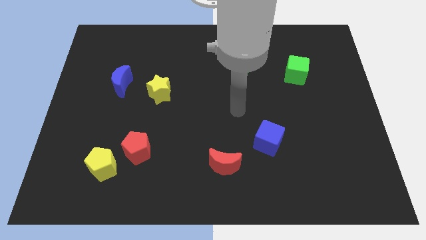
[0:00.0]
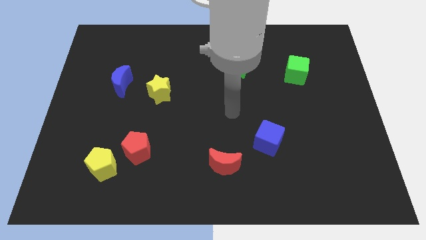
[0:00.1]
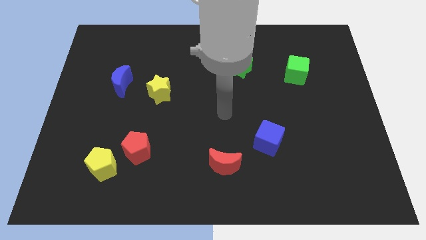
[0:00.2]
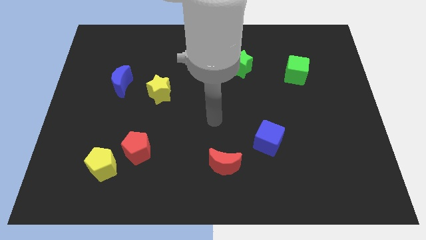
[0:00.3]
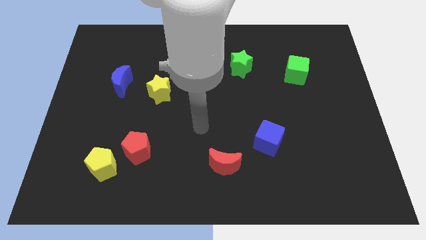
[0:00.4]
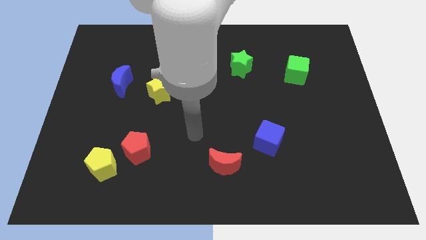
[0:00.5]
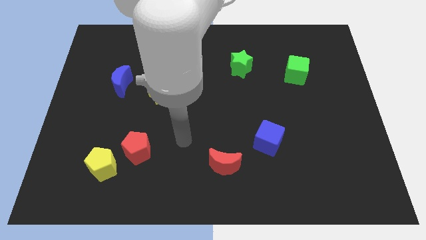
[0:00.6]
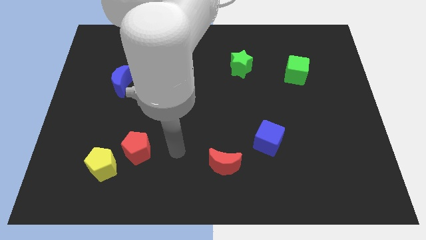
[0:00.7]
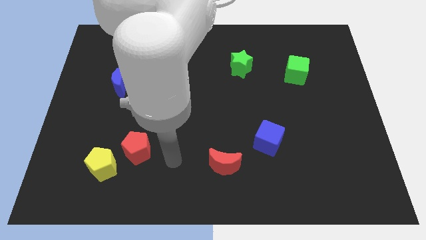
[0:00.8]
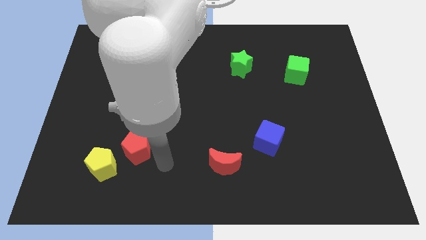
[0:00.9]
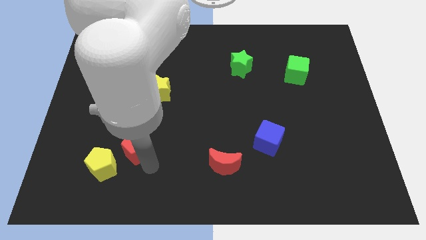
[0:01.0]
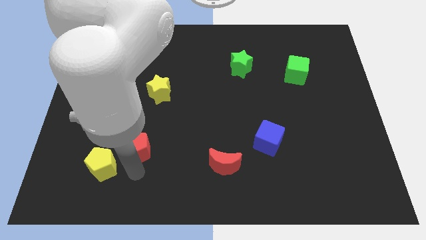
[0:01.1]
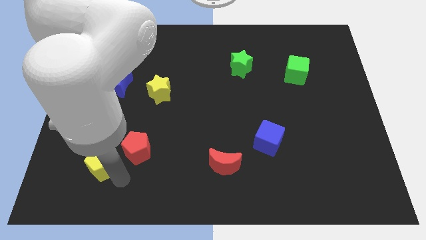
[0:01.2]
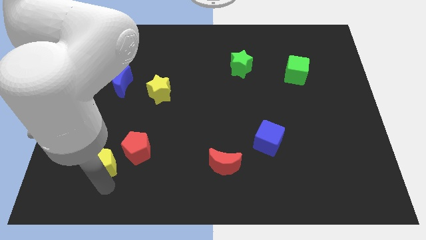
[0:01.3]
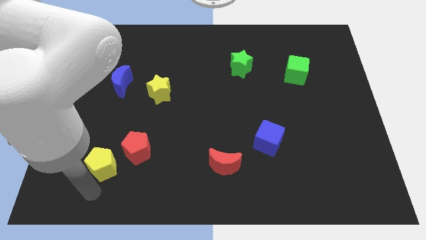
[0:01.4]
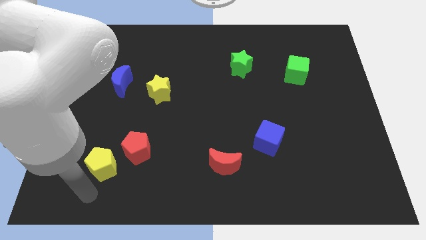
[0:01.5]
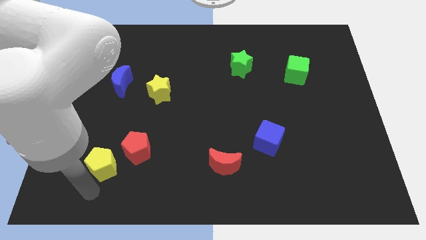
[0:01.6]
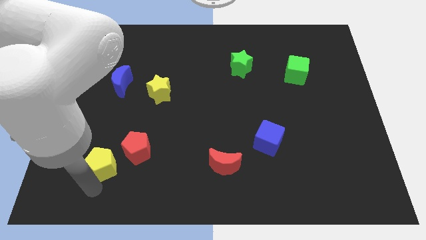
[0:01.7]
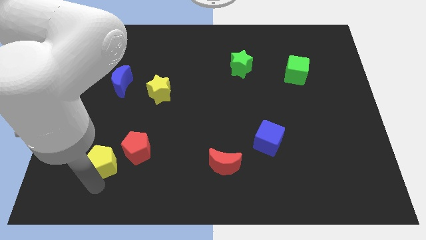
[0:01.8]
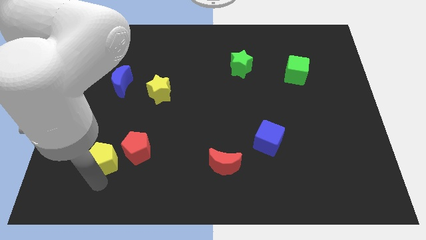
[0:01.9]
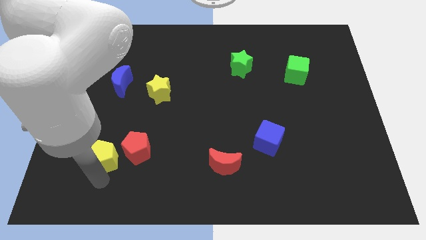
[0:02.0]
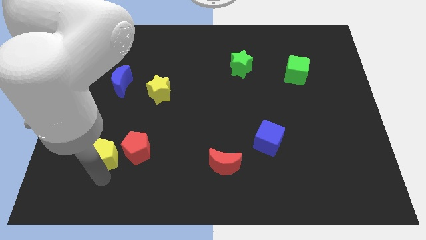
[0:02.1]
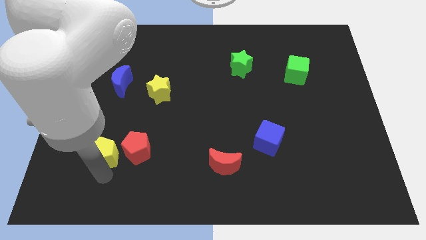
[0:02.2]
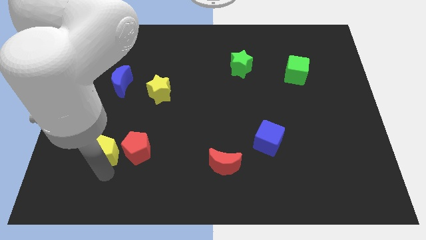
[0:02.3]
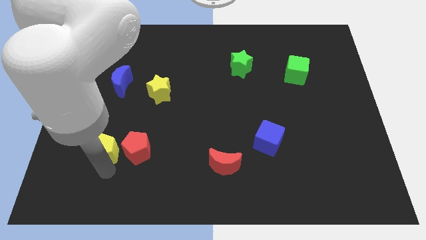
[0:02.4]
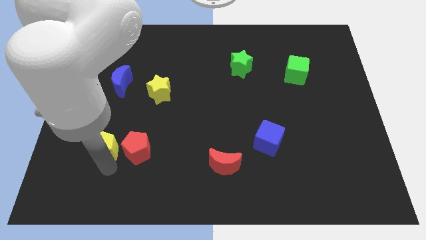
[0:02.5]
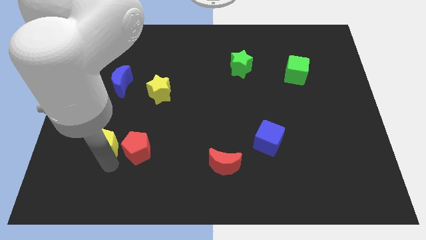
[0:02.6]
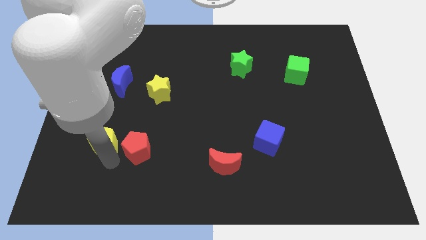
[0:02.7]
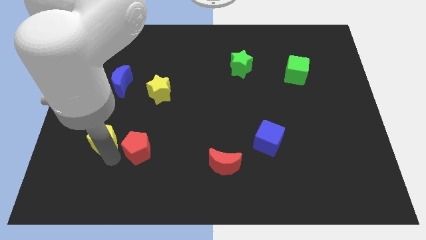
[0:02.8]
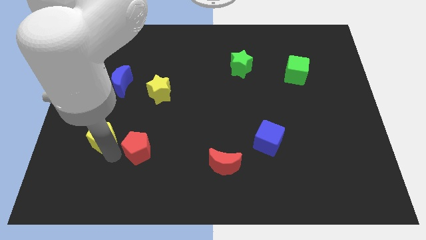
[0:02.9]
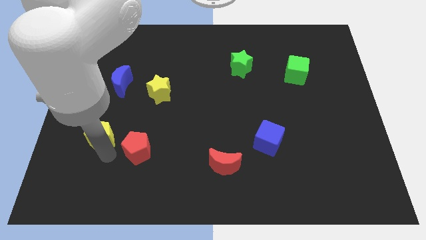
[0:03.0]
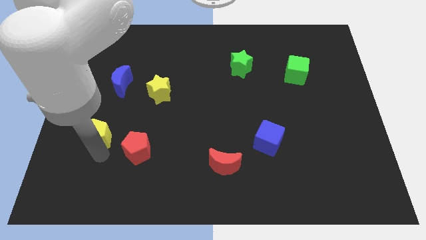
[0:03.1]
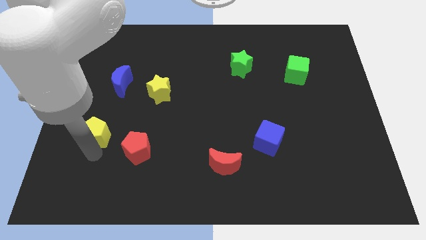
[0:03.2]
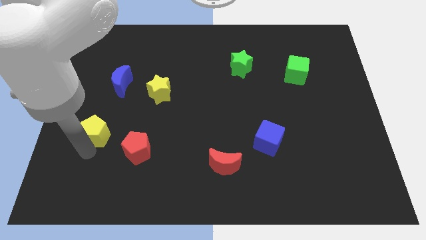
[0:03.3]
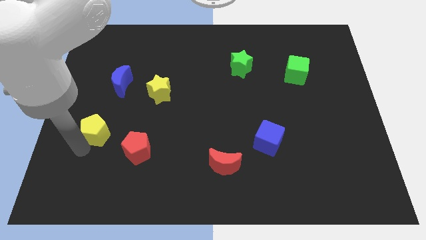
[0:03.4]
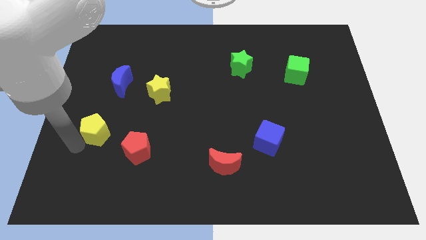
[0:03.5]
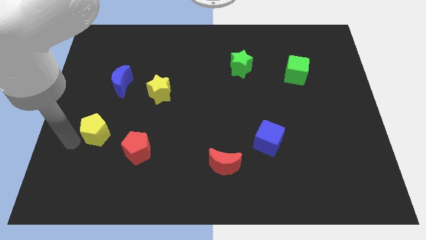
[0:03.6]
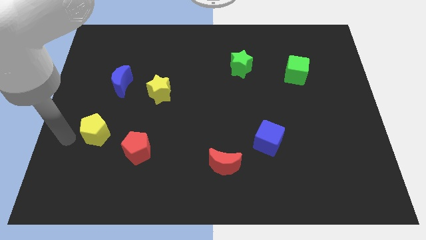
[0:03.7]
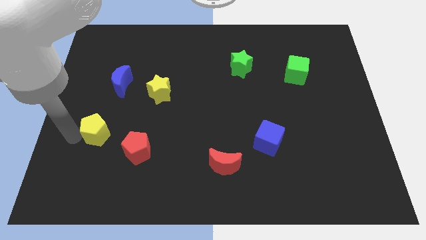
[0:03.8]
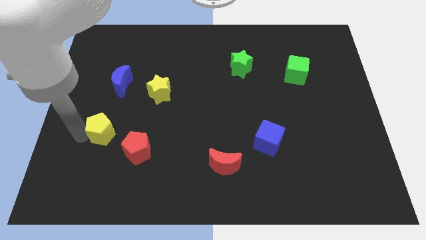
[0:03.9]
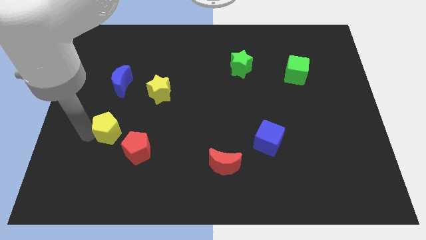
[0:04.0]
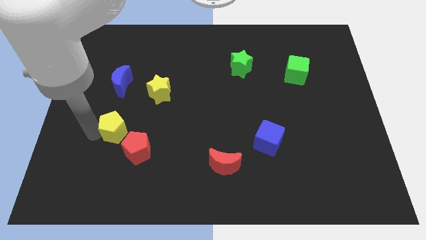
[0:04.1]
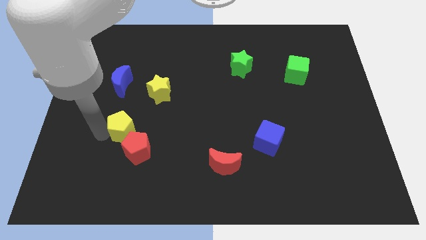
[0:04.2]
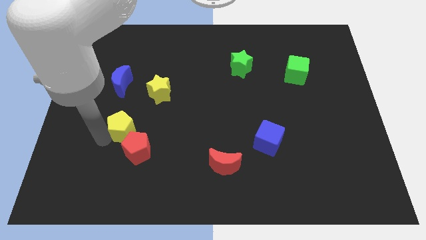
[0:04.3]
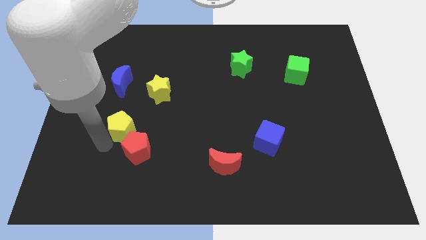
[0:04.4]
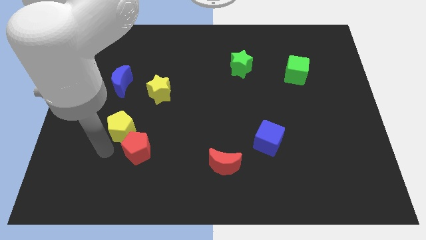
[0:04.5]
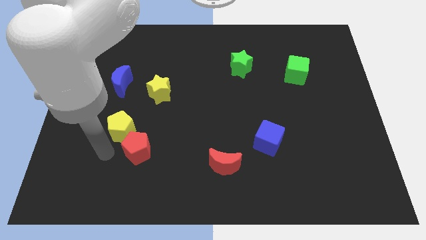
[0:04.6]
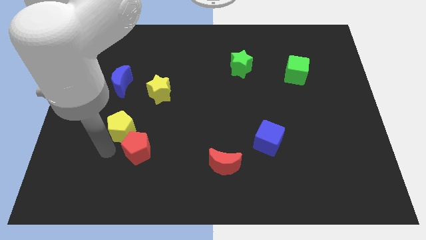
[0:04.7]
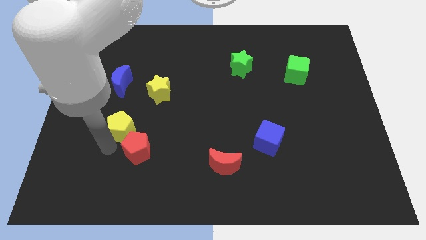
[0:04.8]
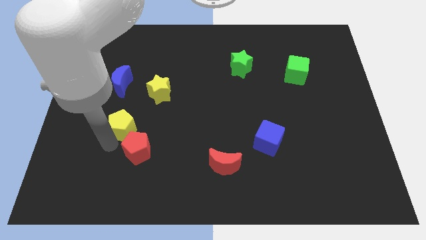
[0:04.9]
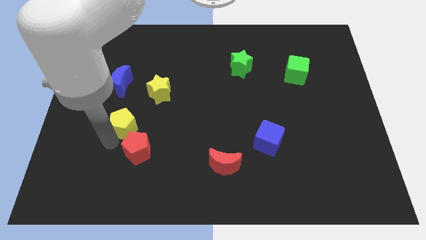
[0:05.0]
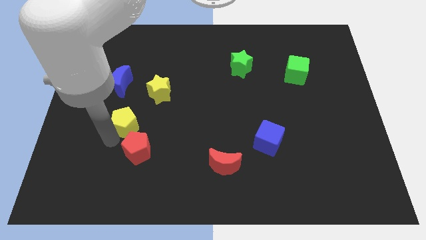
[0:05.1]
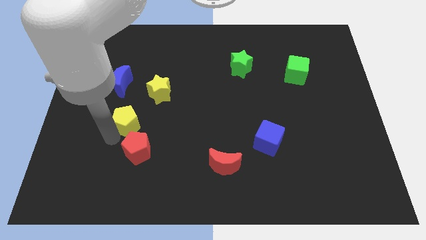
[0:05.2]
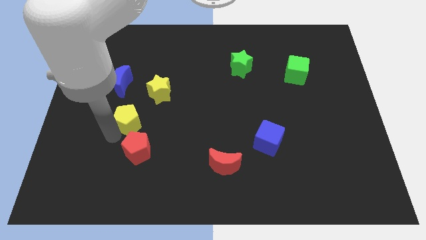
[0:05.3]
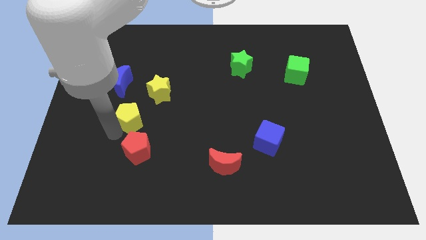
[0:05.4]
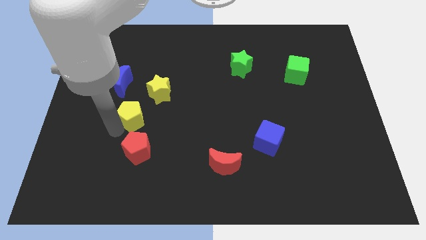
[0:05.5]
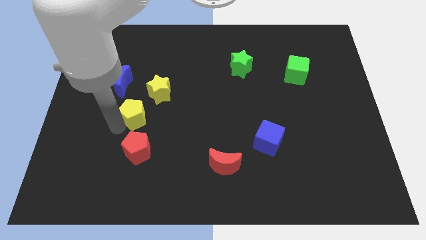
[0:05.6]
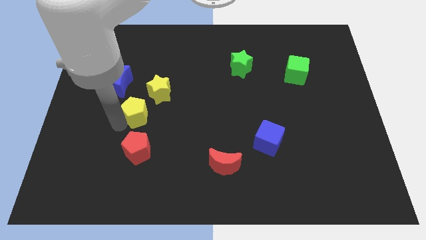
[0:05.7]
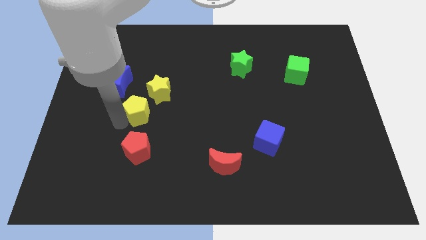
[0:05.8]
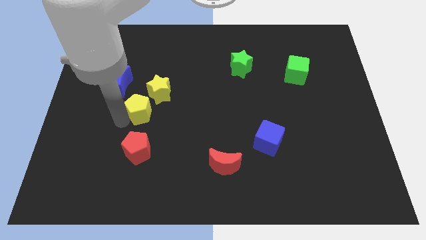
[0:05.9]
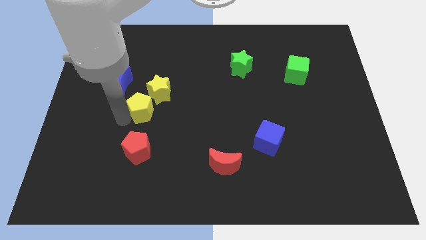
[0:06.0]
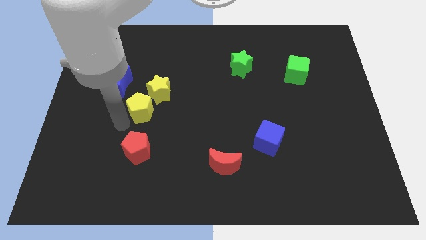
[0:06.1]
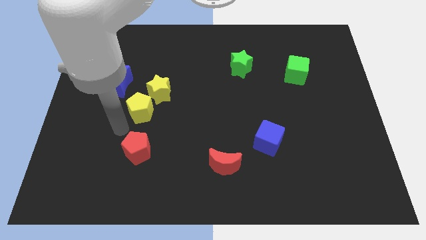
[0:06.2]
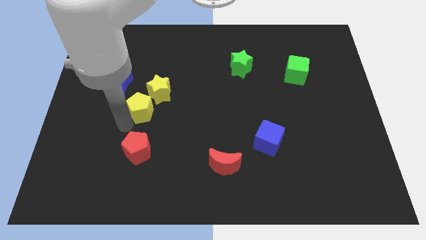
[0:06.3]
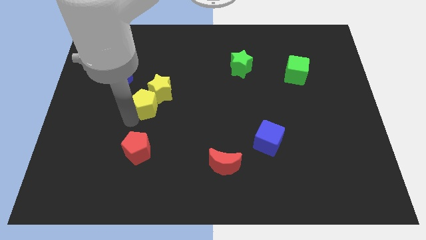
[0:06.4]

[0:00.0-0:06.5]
push the yellow pentagon to the yellow star

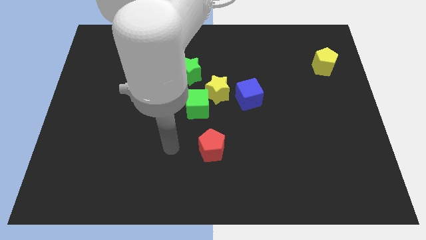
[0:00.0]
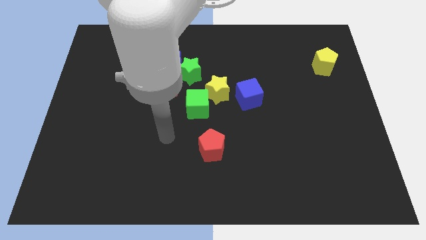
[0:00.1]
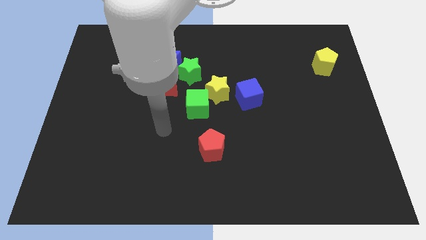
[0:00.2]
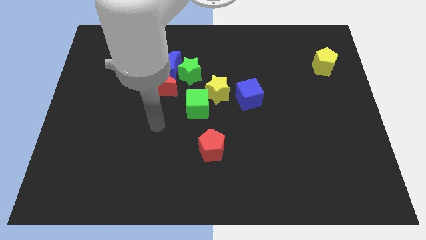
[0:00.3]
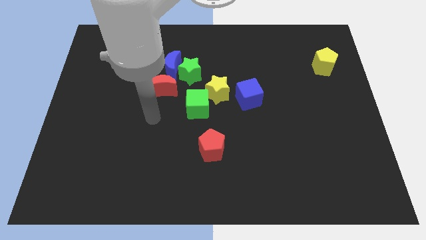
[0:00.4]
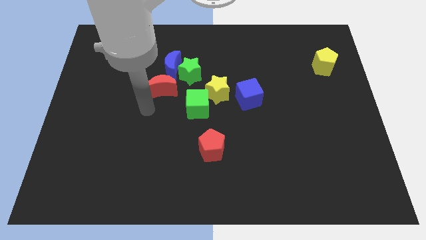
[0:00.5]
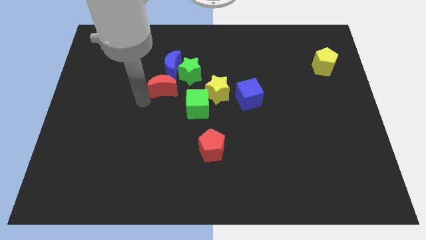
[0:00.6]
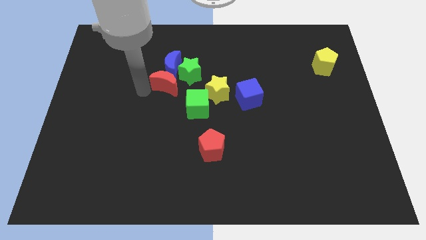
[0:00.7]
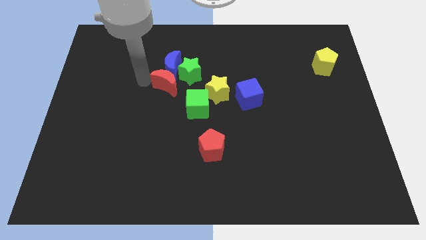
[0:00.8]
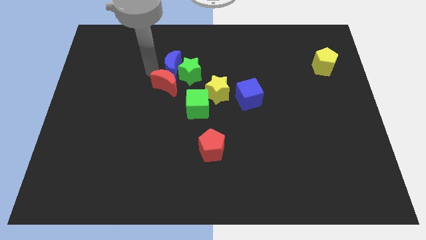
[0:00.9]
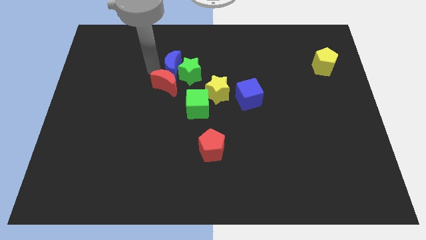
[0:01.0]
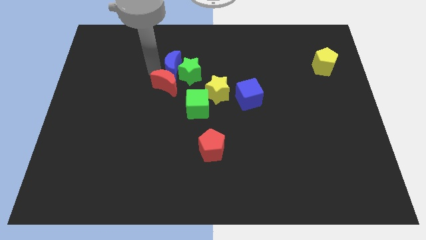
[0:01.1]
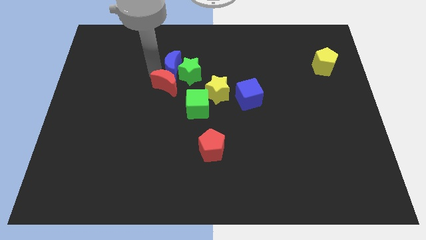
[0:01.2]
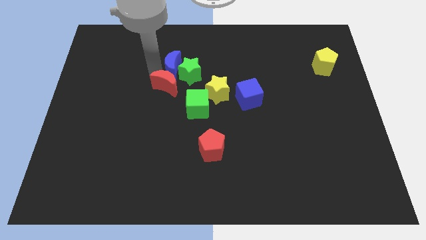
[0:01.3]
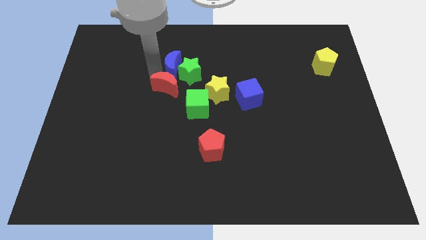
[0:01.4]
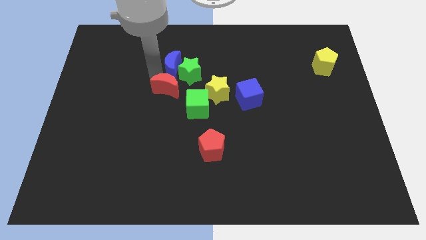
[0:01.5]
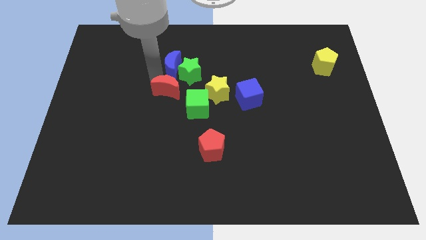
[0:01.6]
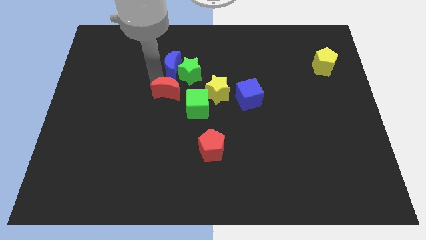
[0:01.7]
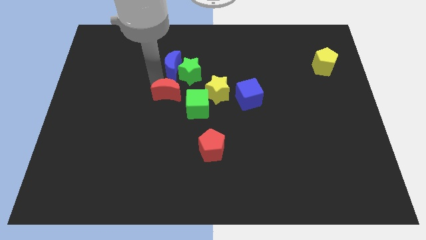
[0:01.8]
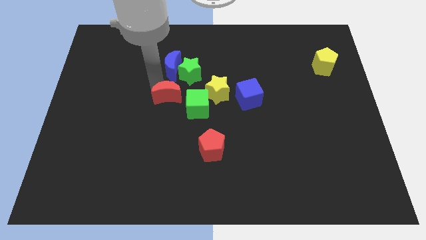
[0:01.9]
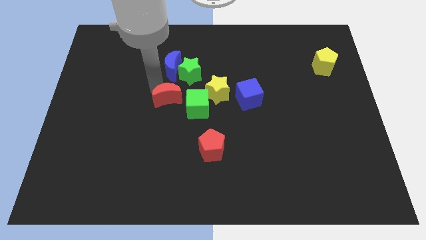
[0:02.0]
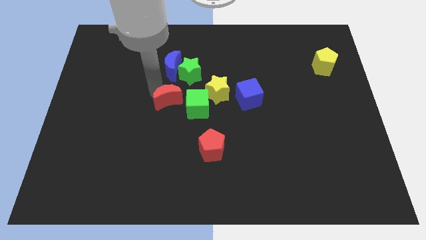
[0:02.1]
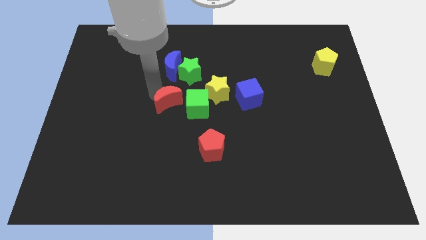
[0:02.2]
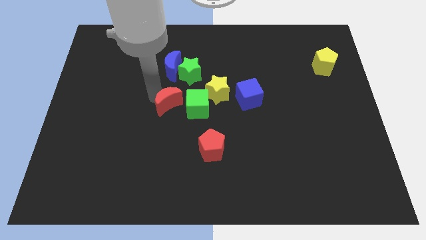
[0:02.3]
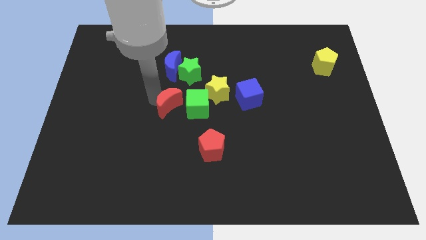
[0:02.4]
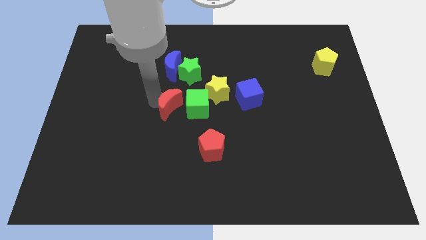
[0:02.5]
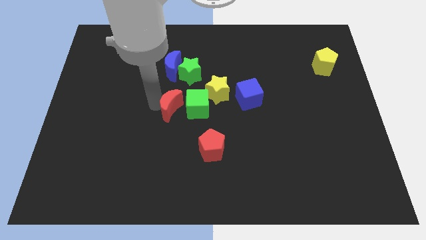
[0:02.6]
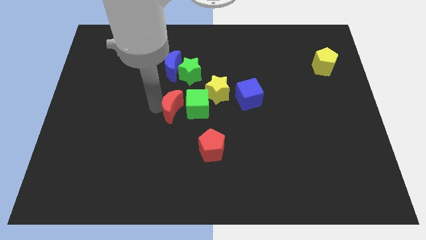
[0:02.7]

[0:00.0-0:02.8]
push the red moon next to the green cube
